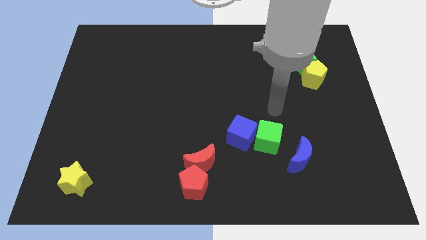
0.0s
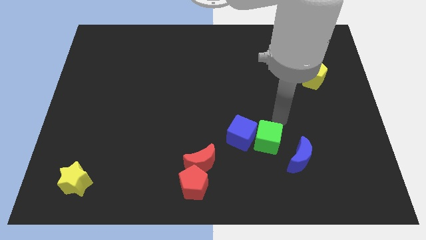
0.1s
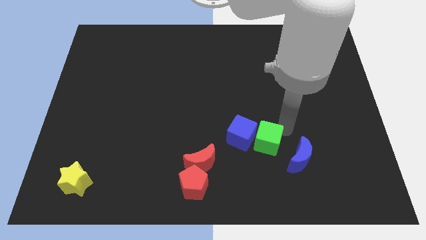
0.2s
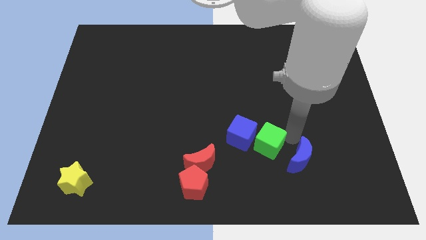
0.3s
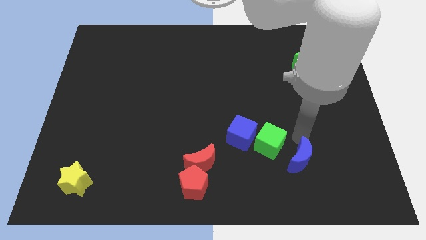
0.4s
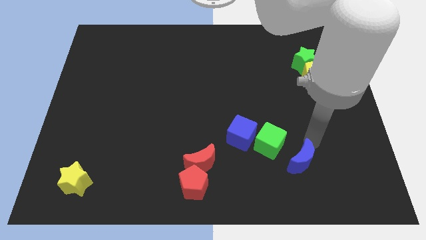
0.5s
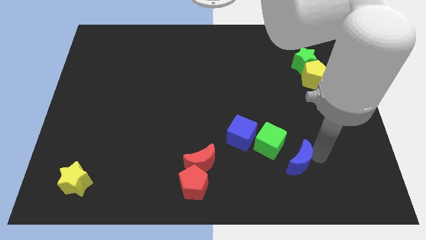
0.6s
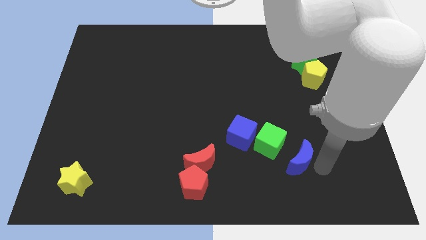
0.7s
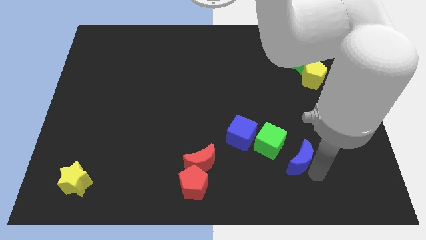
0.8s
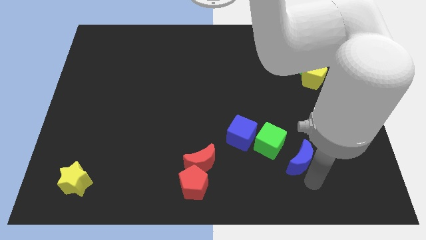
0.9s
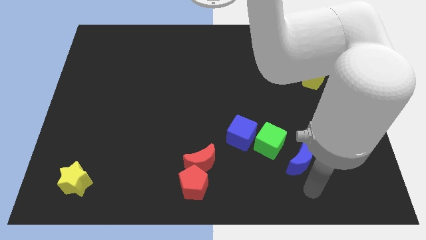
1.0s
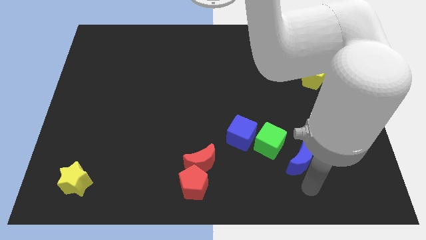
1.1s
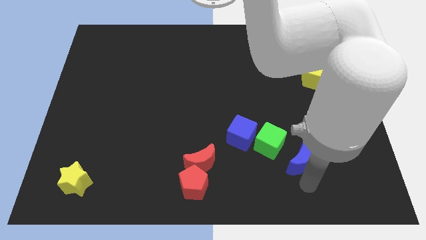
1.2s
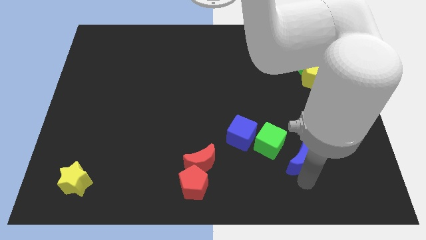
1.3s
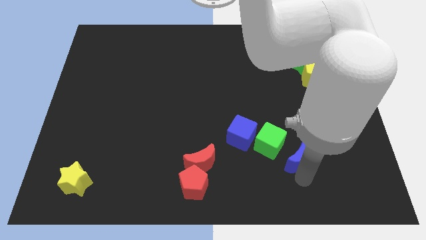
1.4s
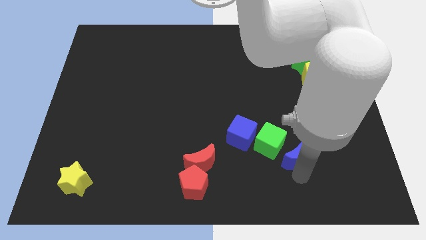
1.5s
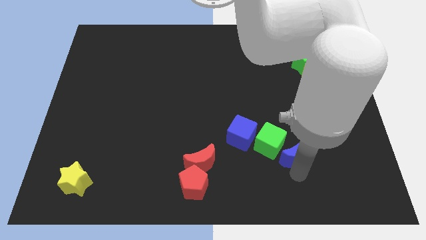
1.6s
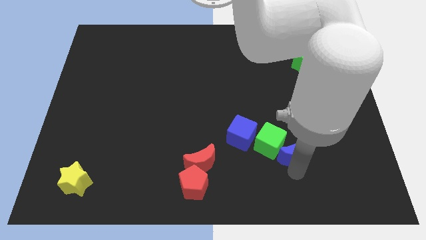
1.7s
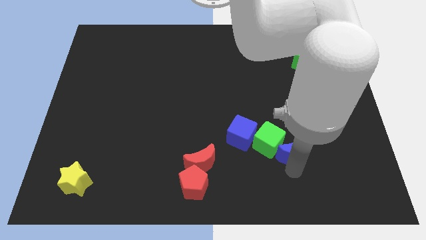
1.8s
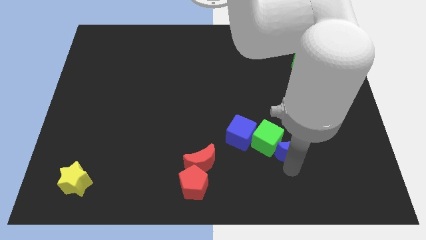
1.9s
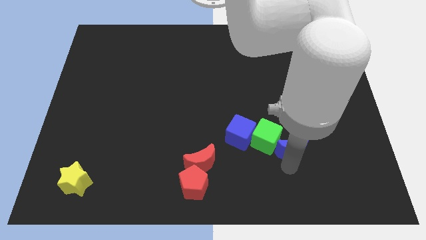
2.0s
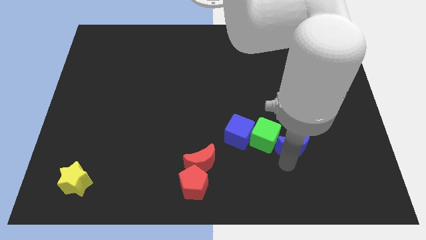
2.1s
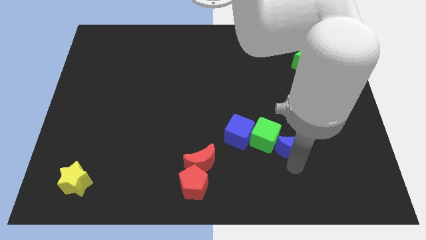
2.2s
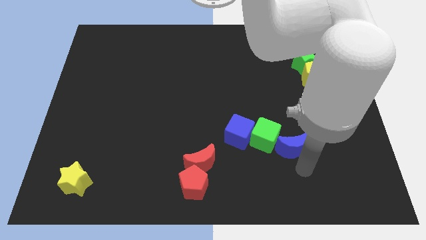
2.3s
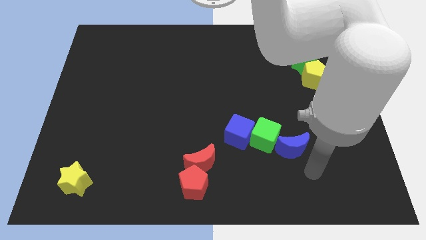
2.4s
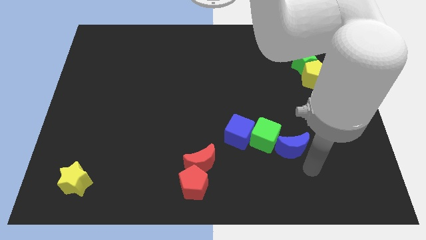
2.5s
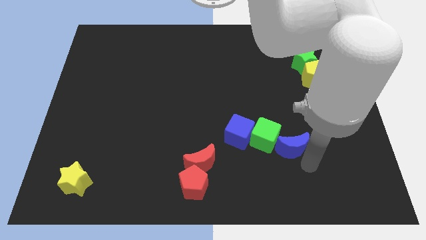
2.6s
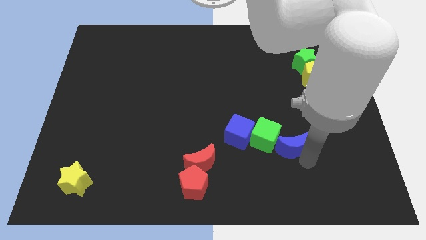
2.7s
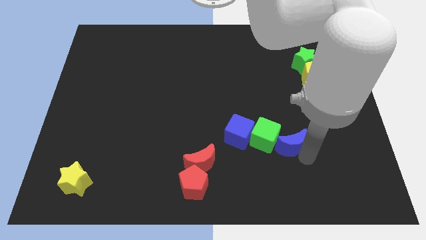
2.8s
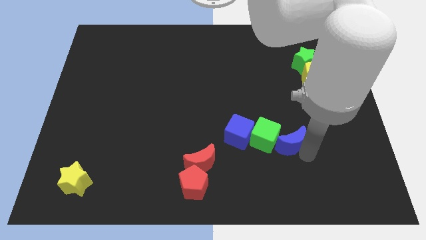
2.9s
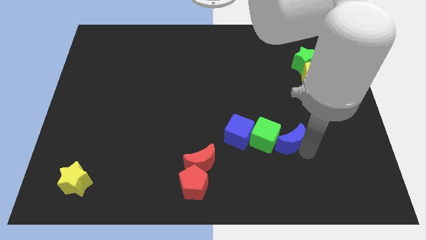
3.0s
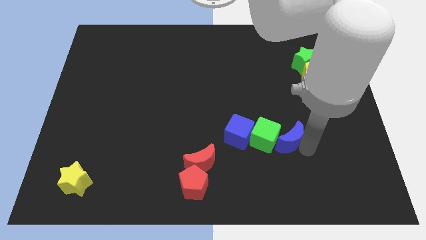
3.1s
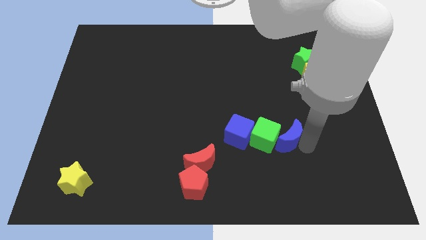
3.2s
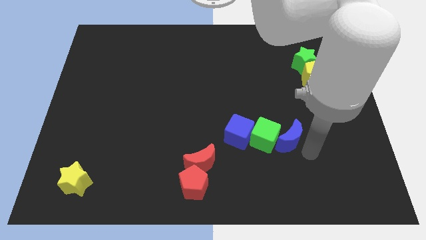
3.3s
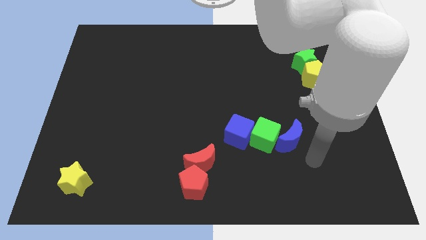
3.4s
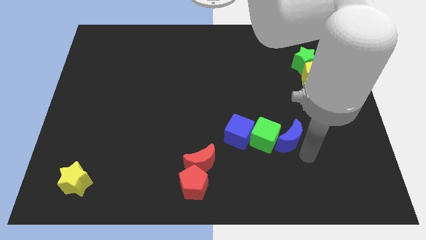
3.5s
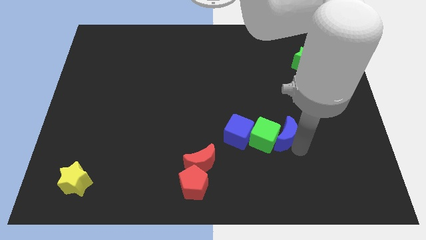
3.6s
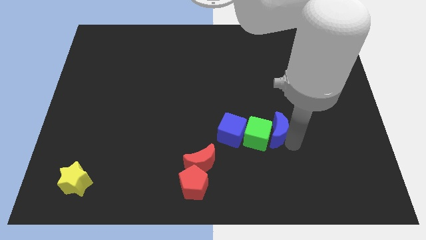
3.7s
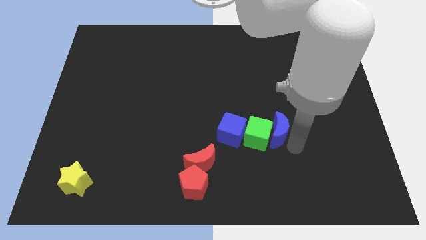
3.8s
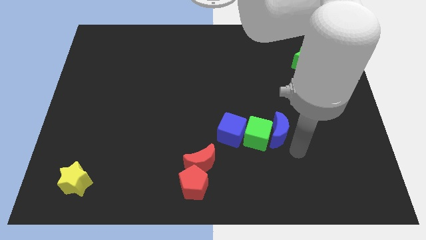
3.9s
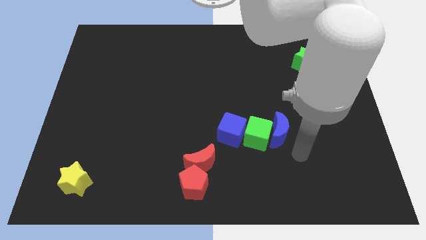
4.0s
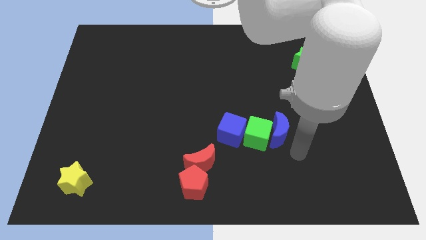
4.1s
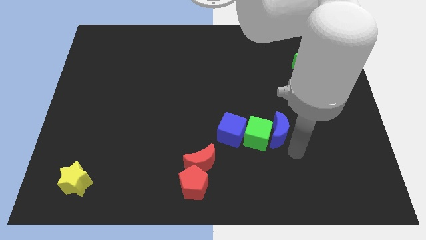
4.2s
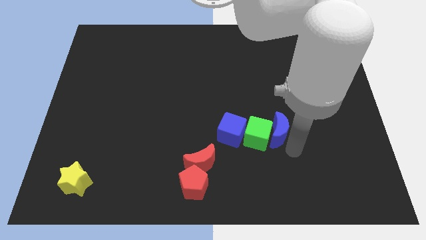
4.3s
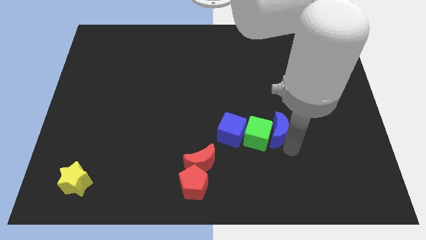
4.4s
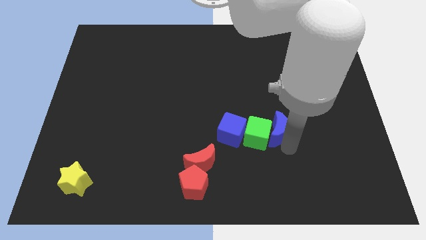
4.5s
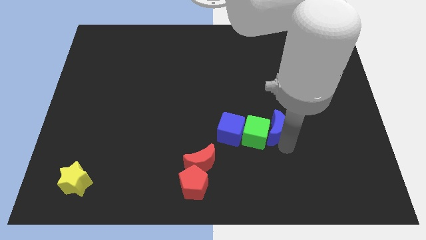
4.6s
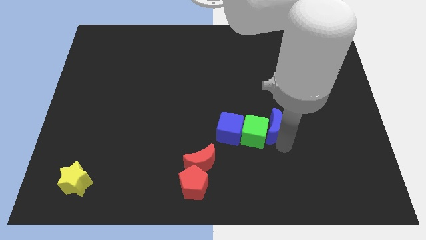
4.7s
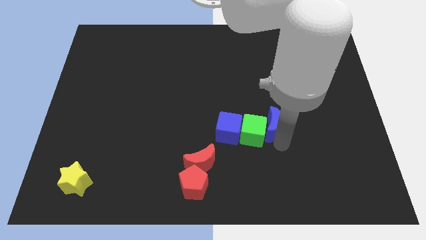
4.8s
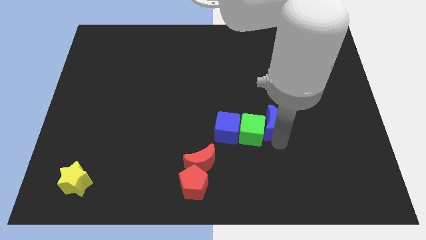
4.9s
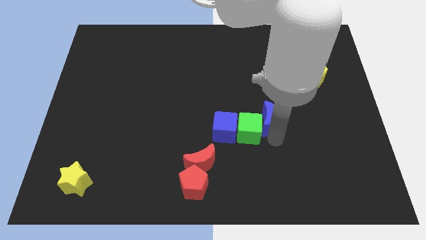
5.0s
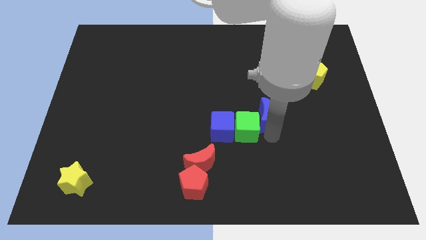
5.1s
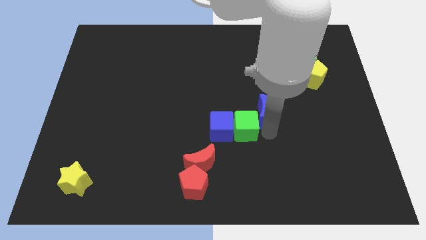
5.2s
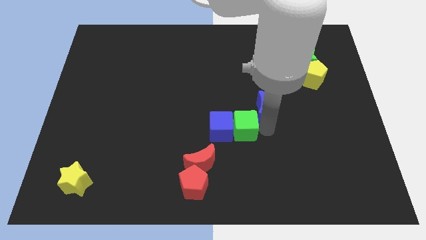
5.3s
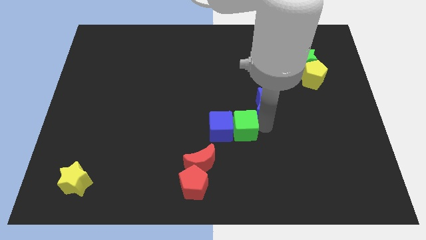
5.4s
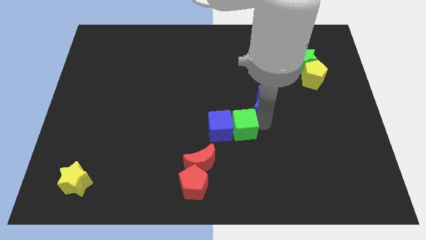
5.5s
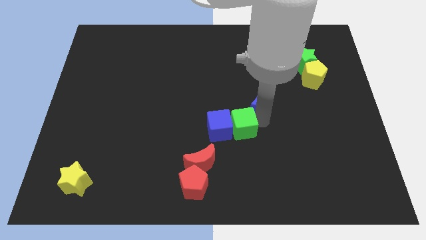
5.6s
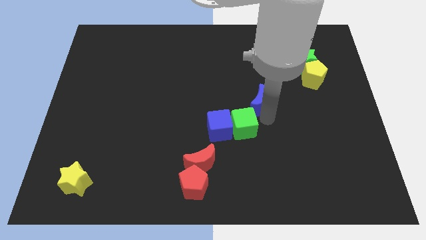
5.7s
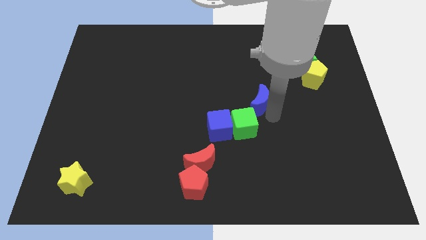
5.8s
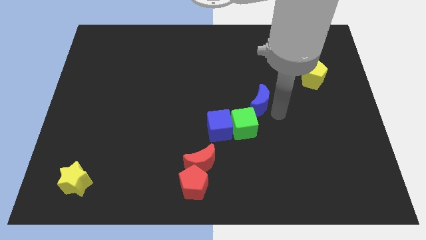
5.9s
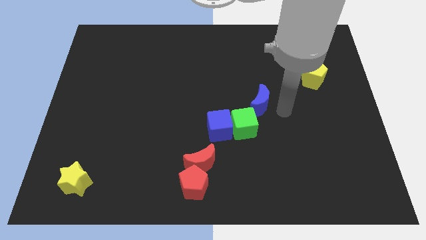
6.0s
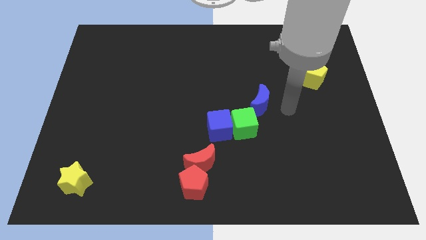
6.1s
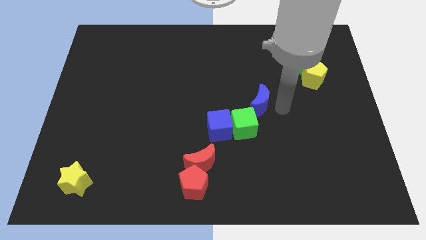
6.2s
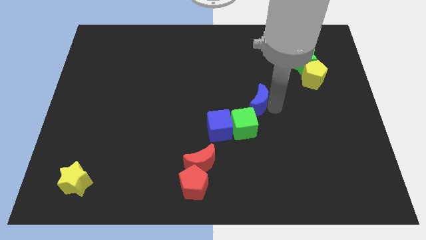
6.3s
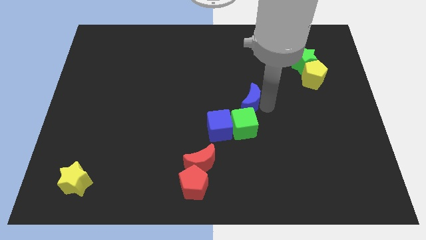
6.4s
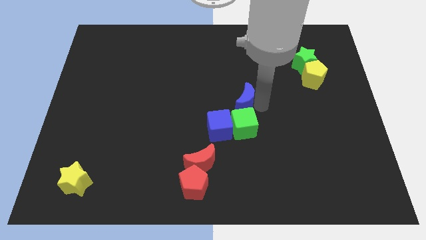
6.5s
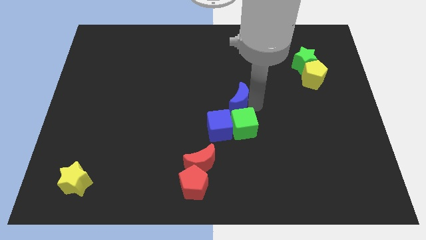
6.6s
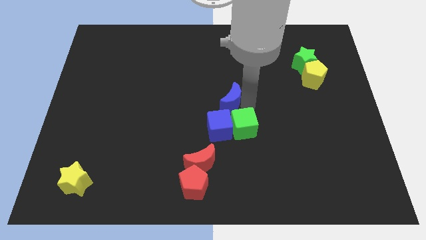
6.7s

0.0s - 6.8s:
move the blue moon diagonally up and to the left
